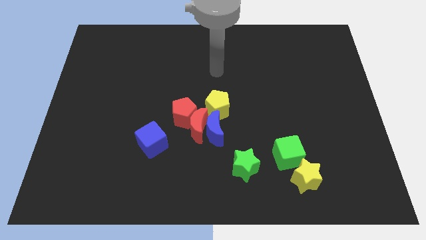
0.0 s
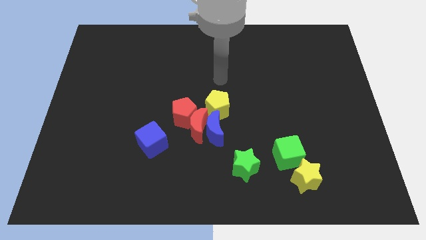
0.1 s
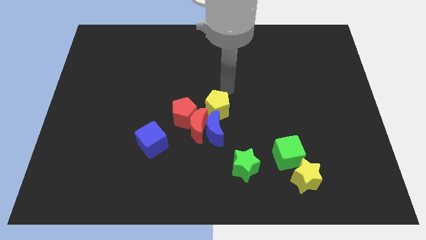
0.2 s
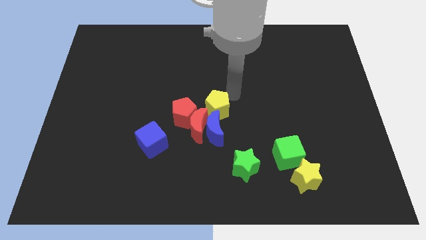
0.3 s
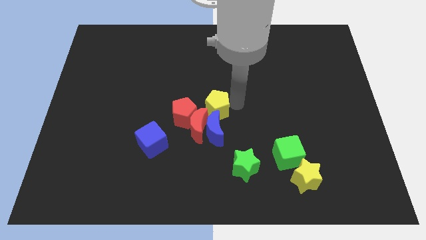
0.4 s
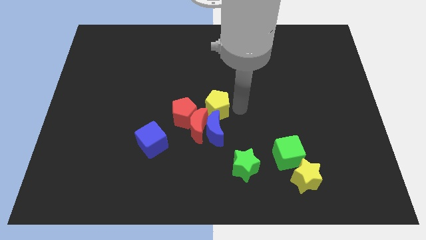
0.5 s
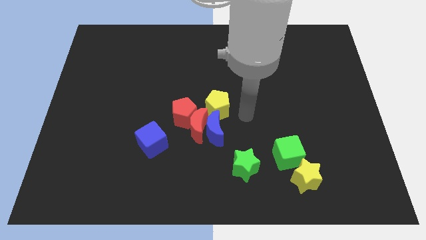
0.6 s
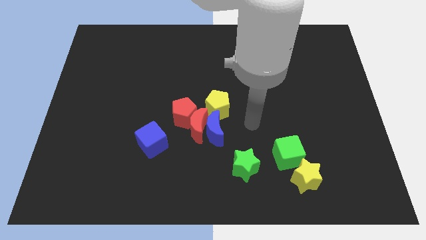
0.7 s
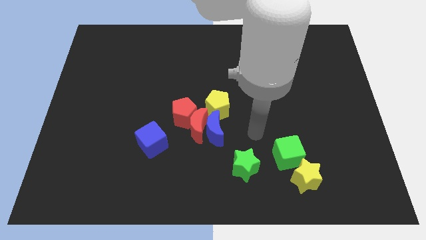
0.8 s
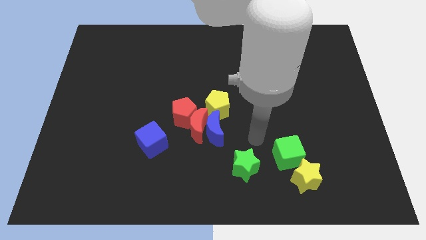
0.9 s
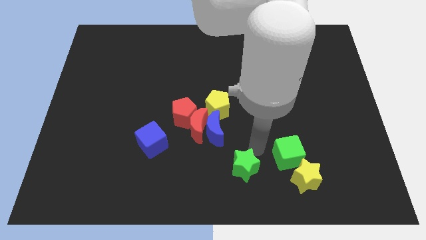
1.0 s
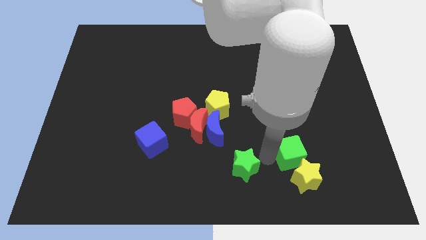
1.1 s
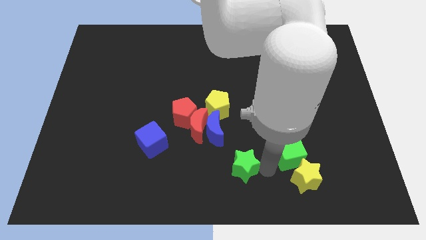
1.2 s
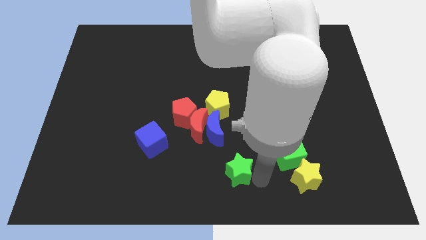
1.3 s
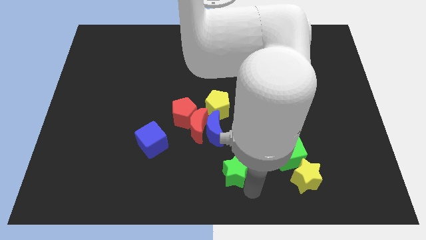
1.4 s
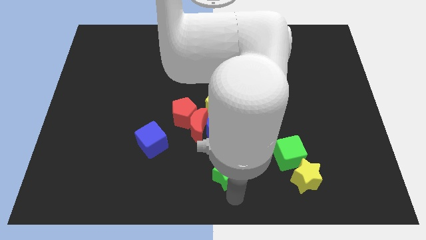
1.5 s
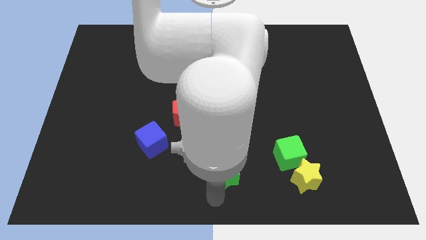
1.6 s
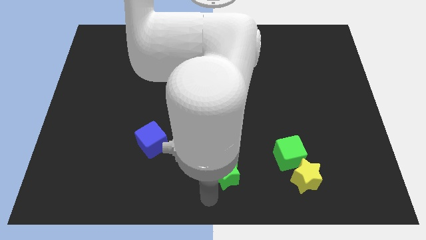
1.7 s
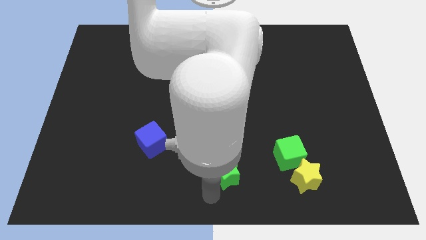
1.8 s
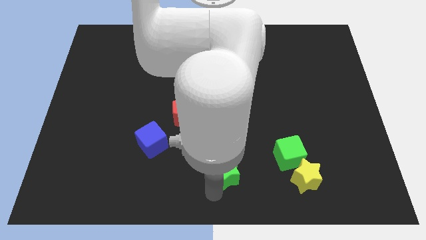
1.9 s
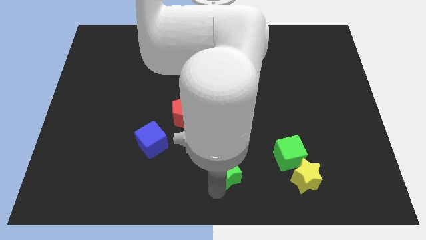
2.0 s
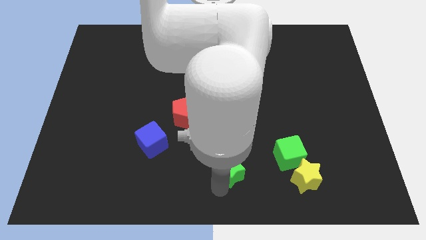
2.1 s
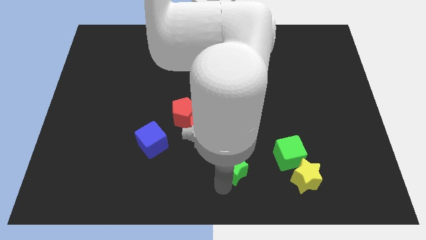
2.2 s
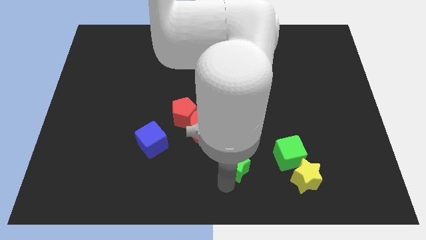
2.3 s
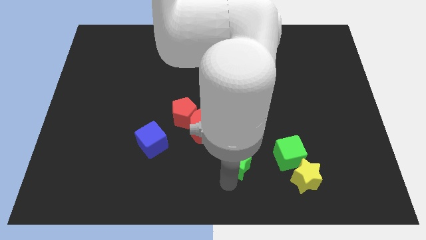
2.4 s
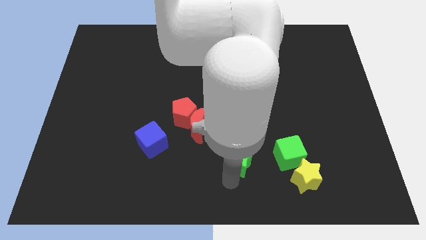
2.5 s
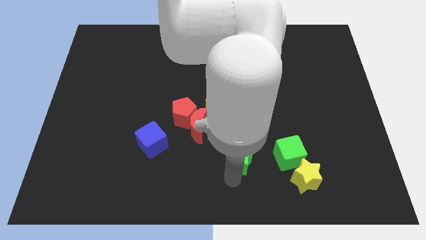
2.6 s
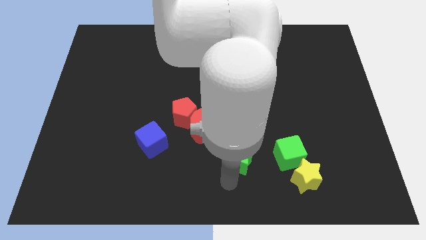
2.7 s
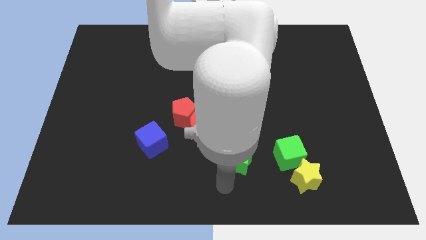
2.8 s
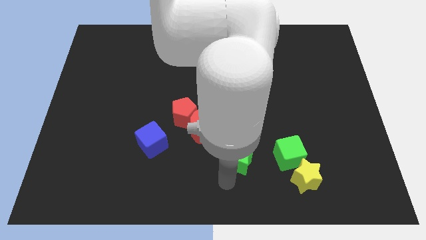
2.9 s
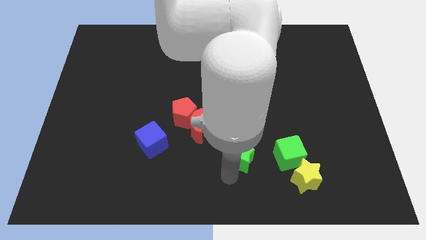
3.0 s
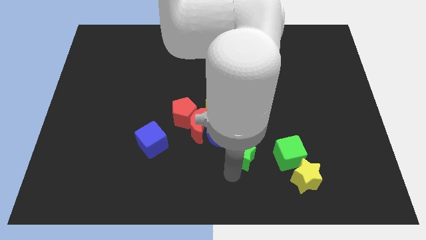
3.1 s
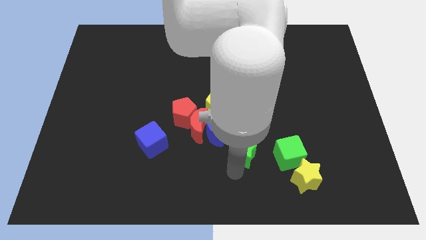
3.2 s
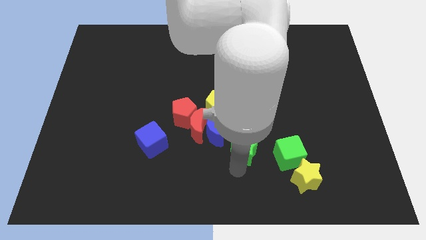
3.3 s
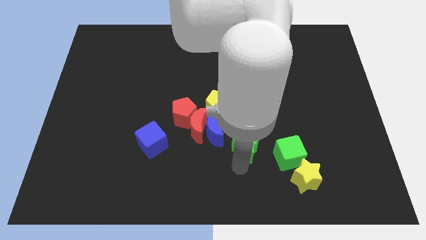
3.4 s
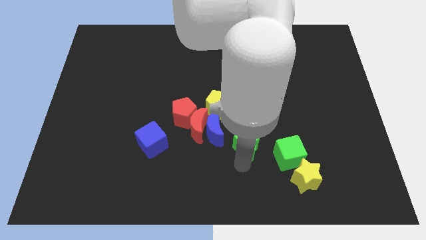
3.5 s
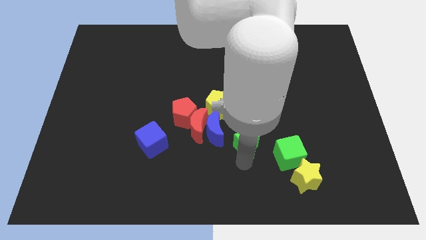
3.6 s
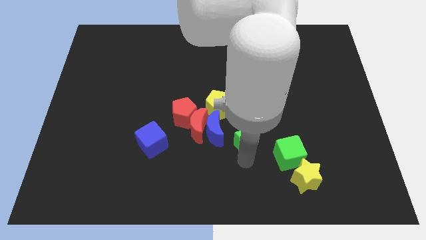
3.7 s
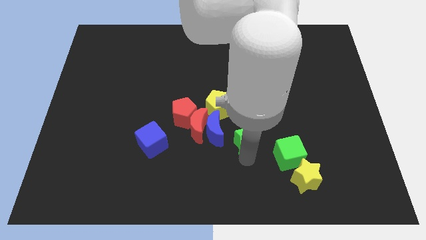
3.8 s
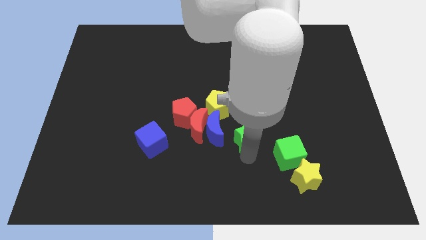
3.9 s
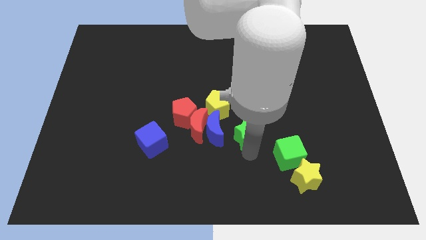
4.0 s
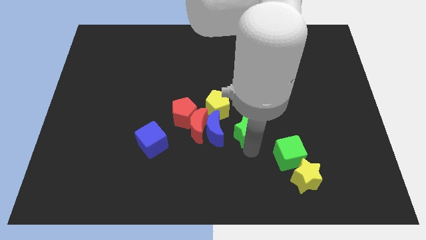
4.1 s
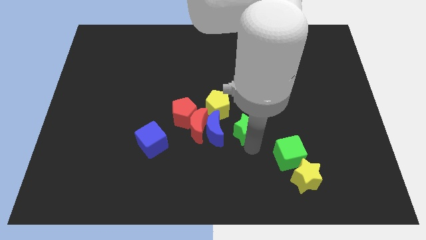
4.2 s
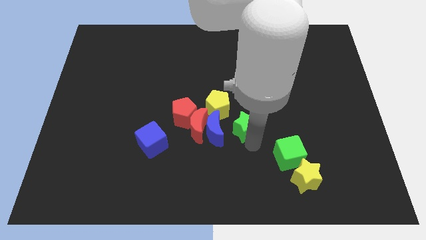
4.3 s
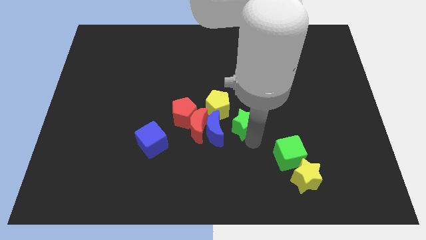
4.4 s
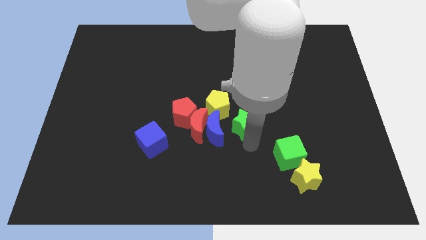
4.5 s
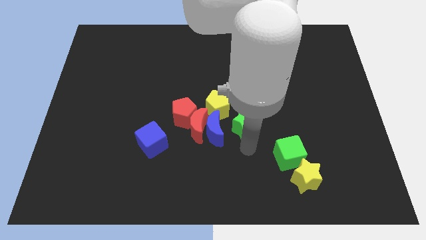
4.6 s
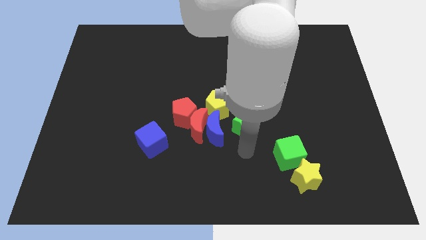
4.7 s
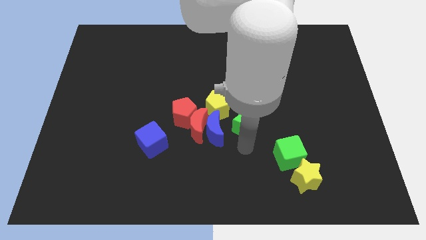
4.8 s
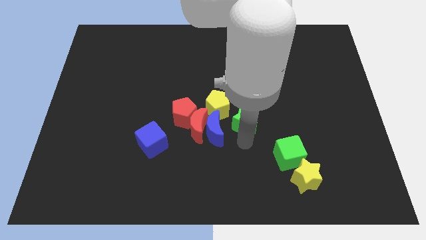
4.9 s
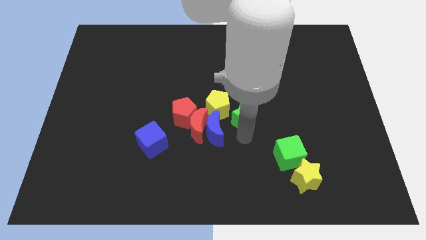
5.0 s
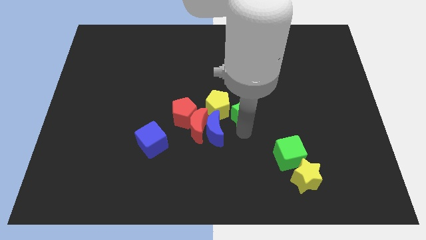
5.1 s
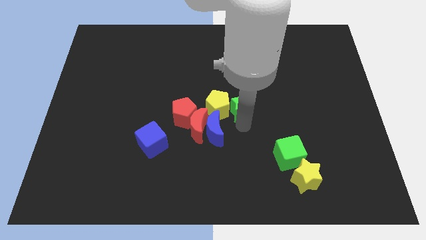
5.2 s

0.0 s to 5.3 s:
slide the green star to the top right of the yellow pentagon

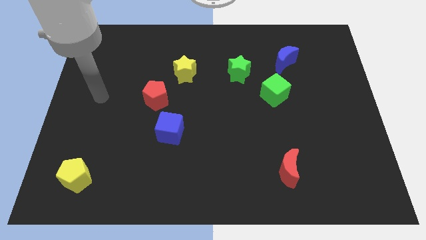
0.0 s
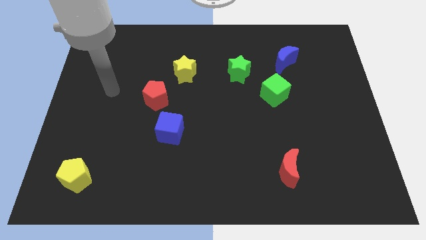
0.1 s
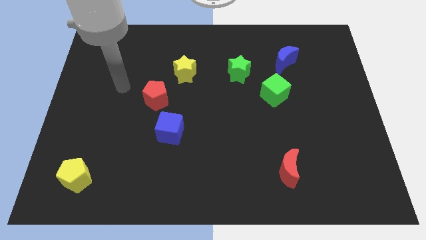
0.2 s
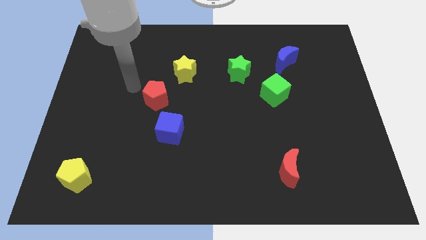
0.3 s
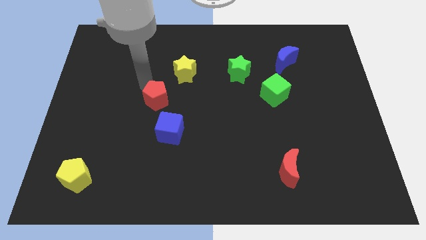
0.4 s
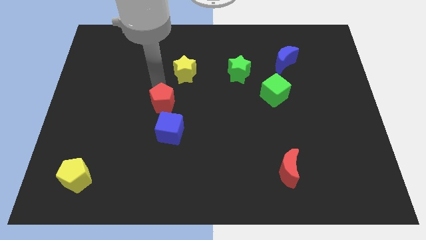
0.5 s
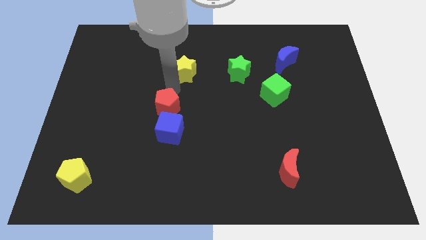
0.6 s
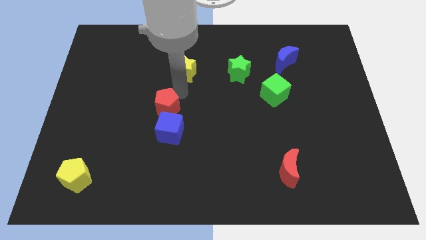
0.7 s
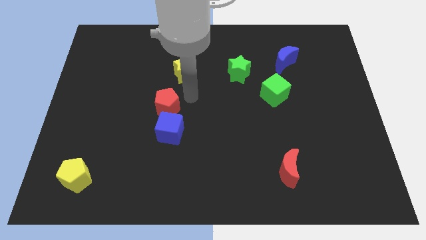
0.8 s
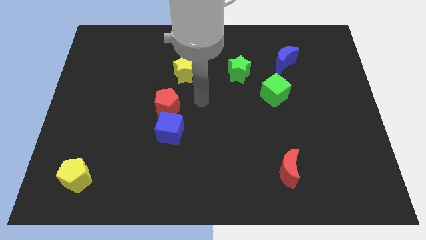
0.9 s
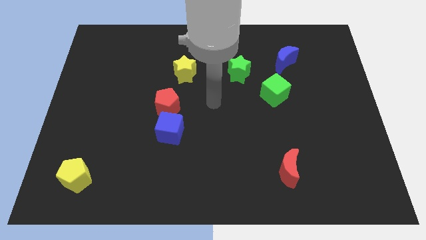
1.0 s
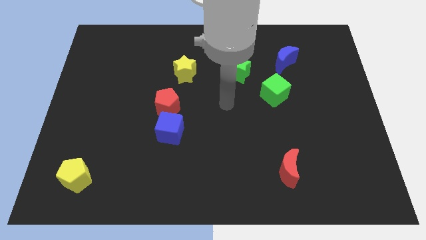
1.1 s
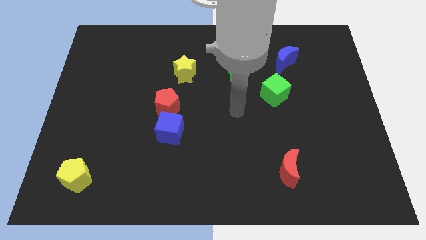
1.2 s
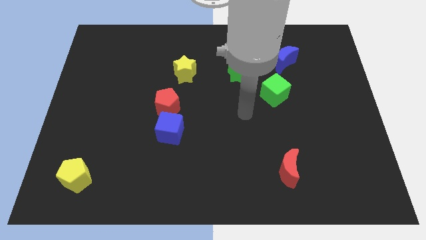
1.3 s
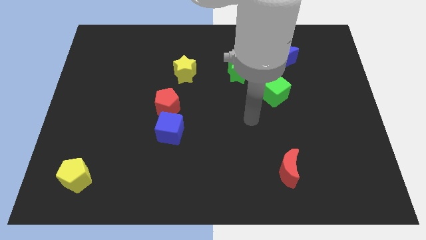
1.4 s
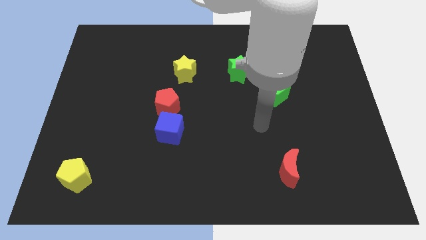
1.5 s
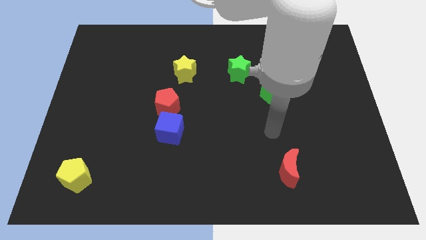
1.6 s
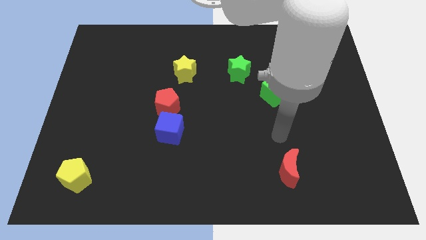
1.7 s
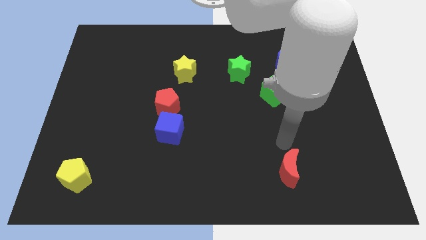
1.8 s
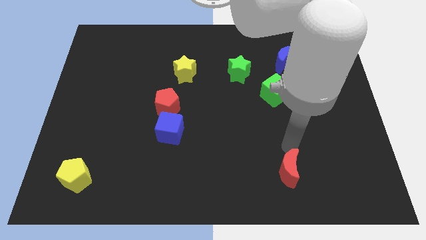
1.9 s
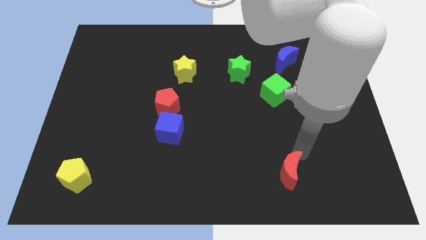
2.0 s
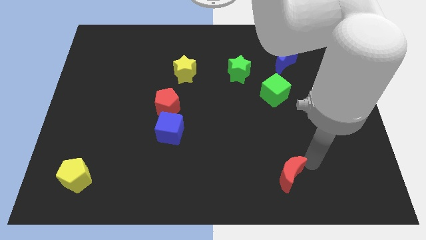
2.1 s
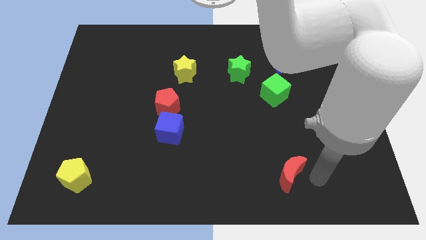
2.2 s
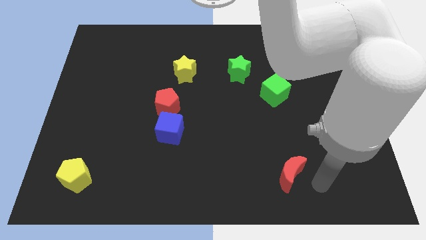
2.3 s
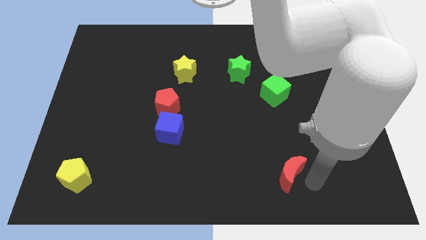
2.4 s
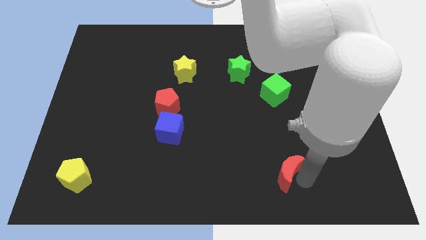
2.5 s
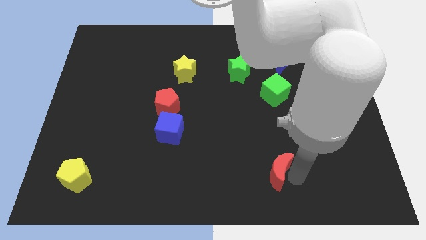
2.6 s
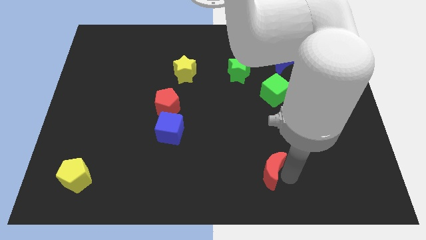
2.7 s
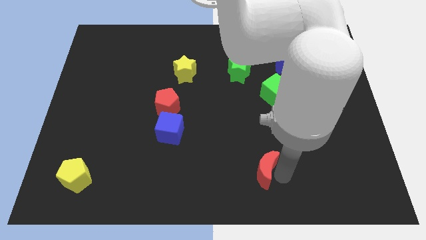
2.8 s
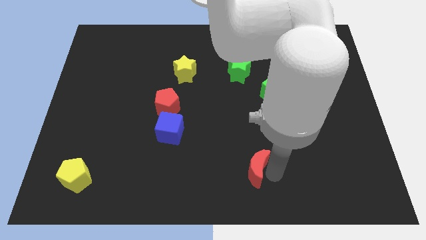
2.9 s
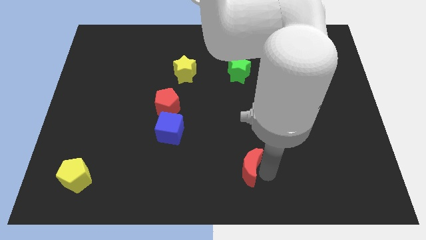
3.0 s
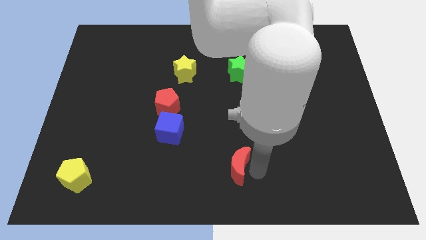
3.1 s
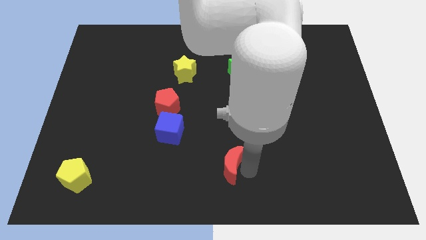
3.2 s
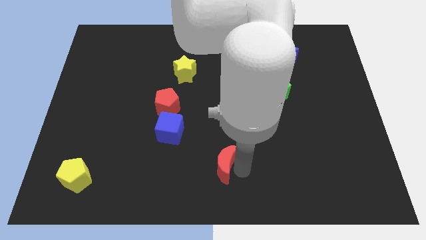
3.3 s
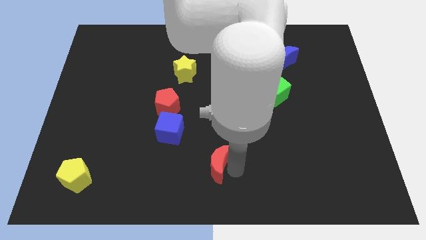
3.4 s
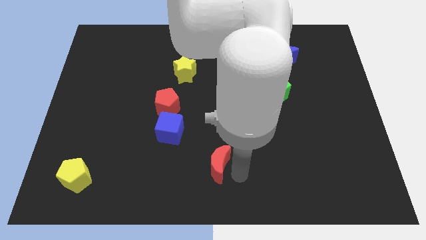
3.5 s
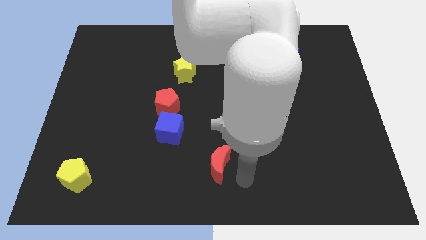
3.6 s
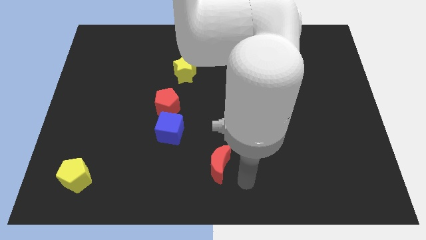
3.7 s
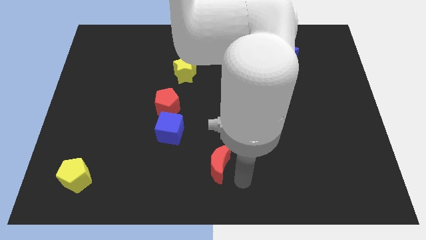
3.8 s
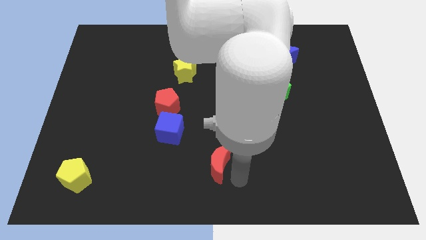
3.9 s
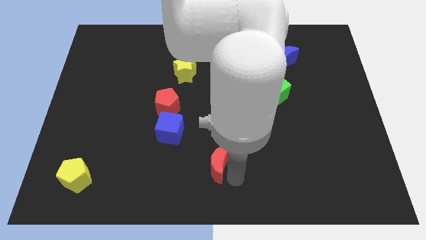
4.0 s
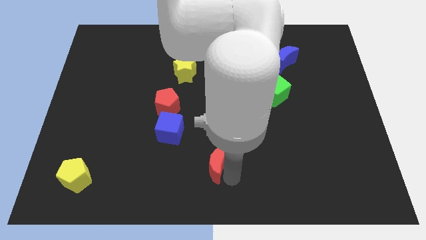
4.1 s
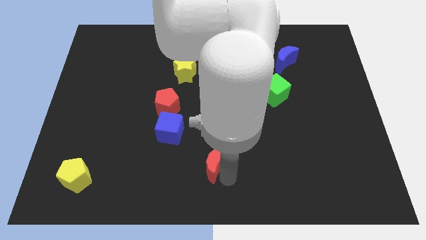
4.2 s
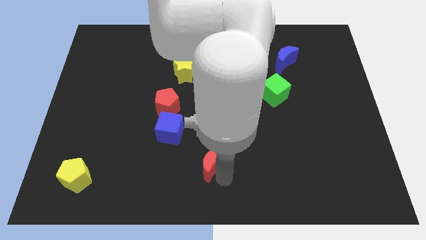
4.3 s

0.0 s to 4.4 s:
put the red moon to the bottom right side of the blue cube
